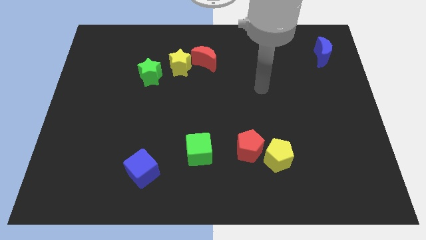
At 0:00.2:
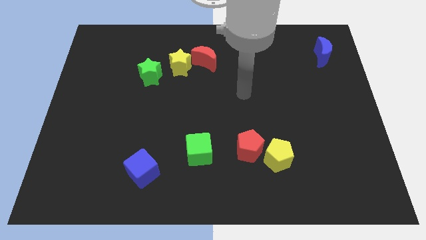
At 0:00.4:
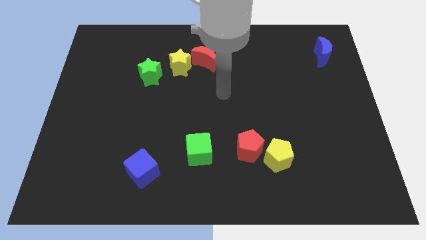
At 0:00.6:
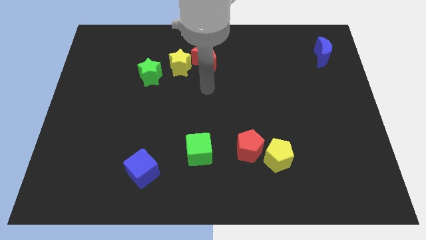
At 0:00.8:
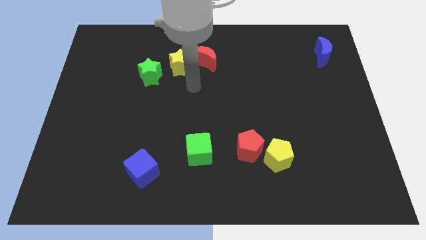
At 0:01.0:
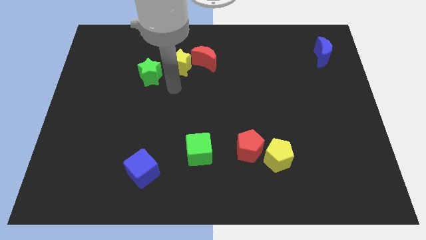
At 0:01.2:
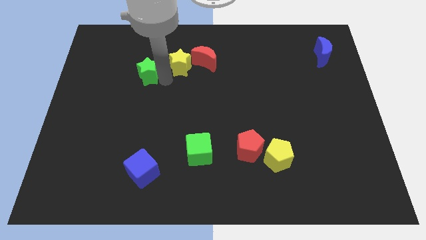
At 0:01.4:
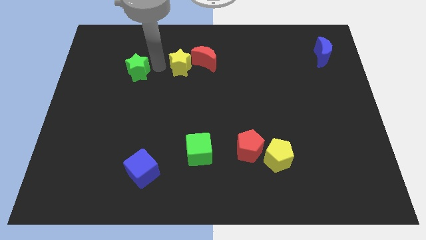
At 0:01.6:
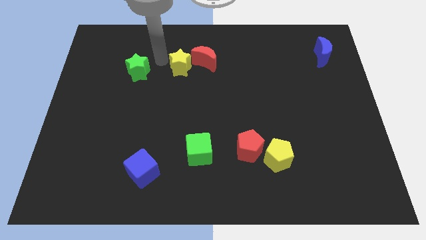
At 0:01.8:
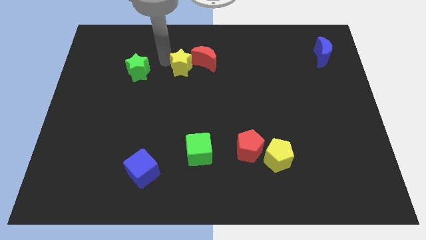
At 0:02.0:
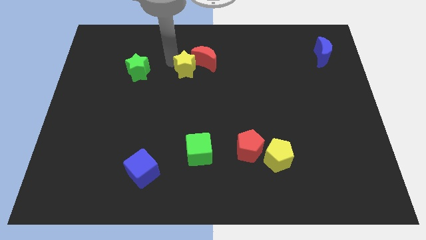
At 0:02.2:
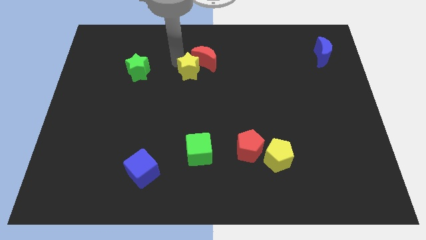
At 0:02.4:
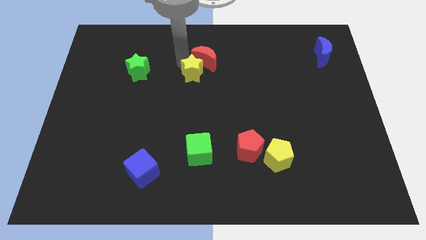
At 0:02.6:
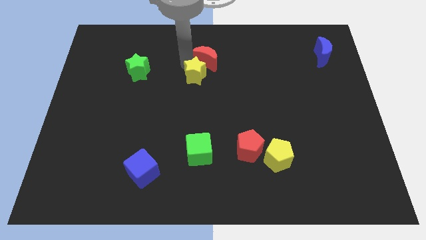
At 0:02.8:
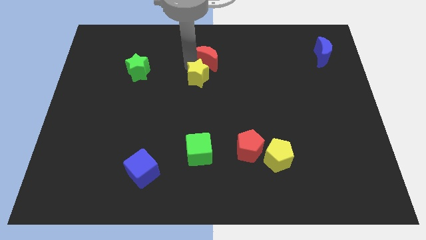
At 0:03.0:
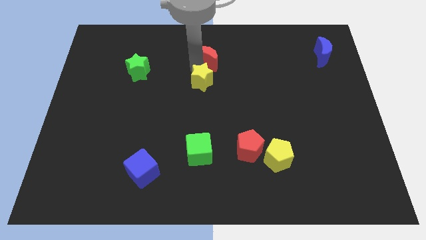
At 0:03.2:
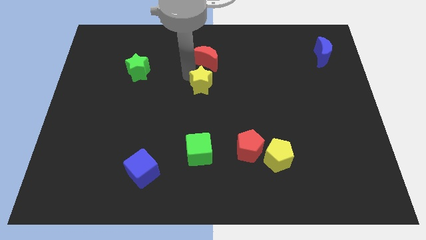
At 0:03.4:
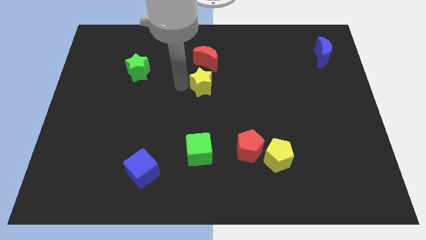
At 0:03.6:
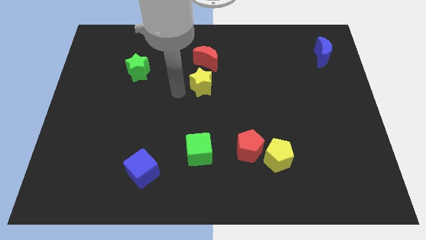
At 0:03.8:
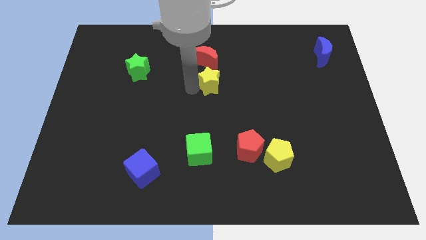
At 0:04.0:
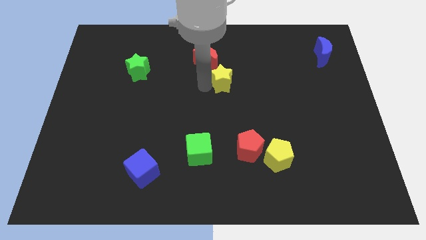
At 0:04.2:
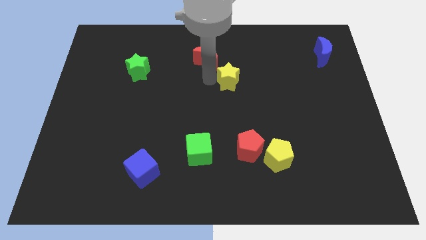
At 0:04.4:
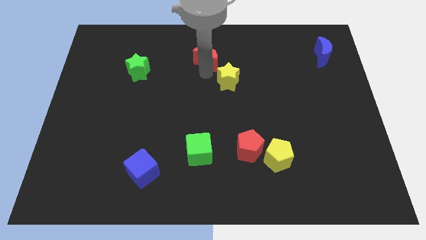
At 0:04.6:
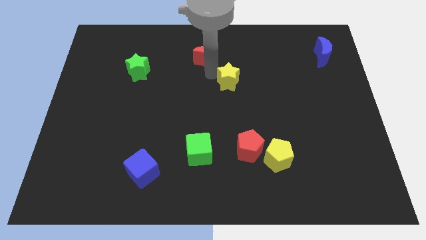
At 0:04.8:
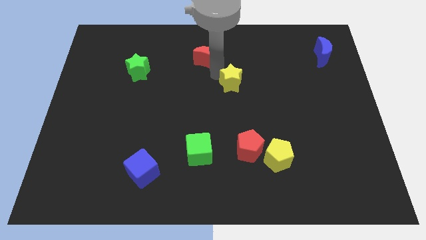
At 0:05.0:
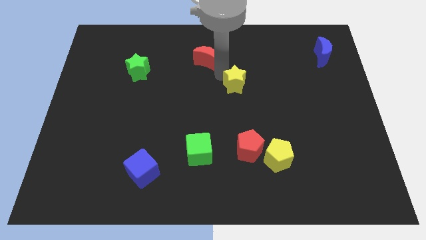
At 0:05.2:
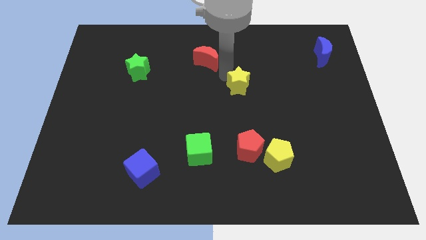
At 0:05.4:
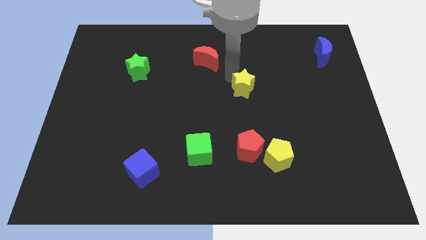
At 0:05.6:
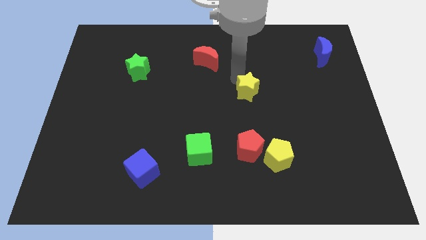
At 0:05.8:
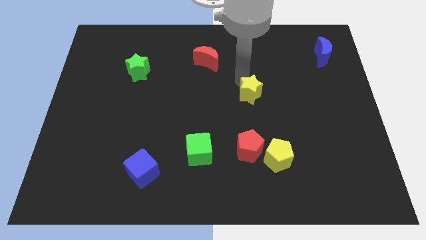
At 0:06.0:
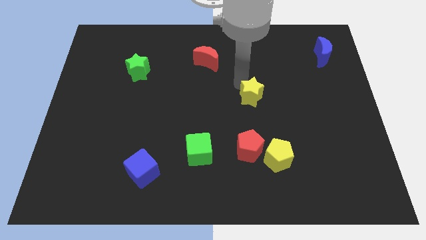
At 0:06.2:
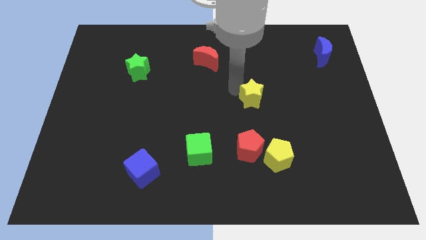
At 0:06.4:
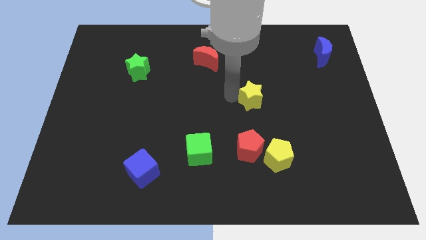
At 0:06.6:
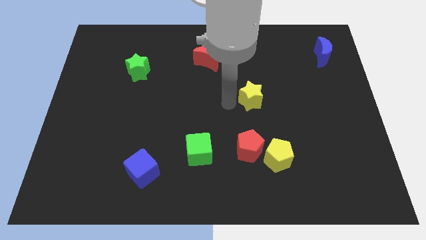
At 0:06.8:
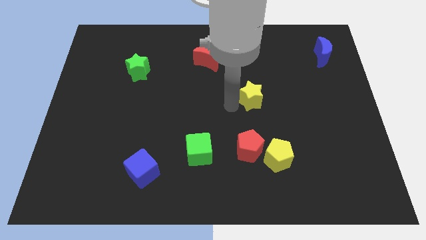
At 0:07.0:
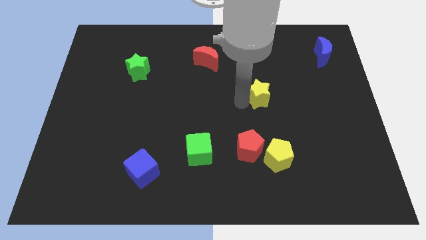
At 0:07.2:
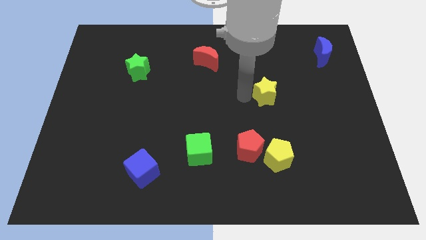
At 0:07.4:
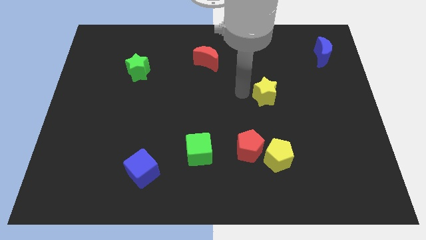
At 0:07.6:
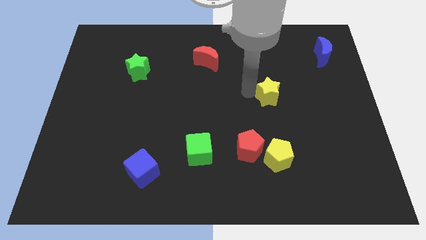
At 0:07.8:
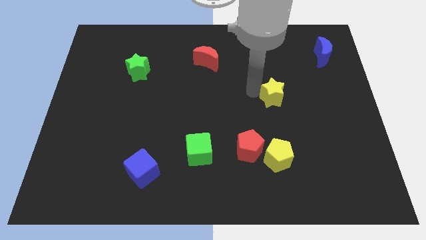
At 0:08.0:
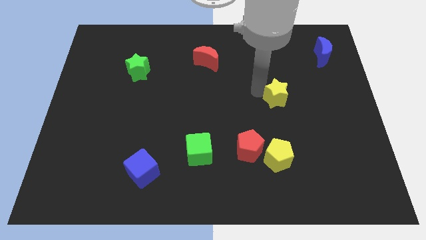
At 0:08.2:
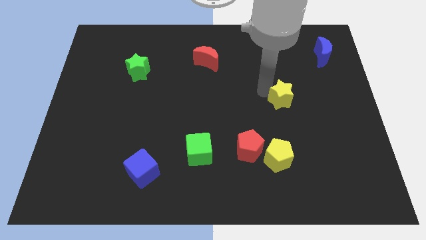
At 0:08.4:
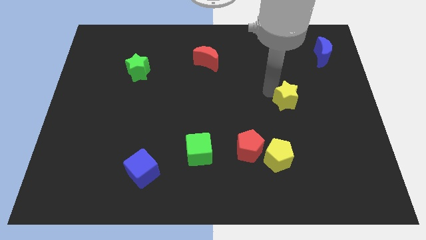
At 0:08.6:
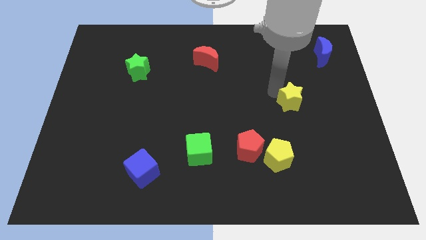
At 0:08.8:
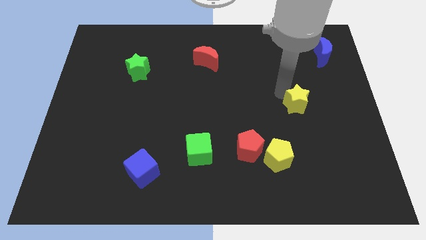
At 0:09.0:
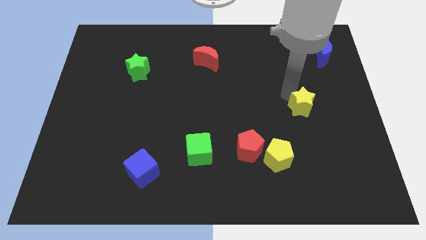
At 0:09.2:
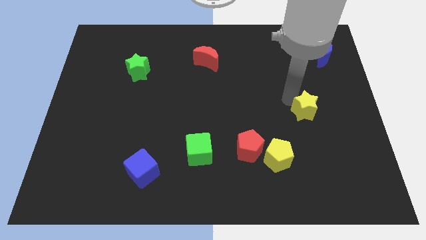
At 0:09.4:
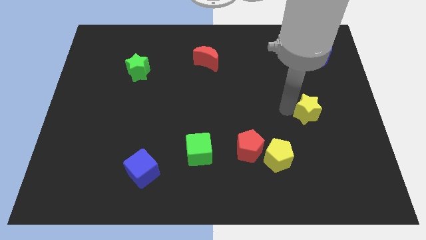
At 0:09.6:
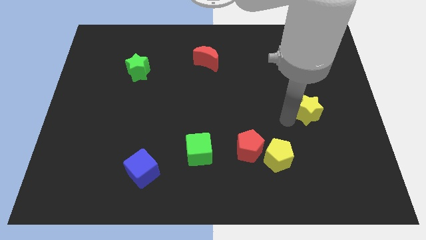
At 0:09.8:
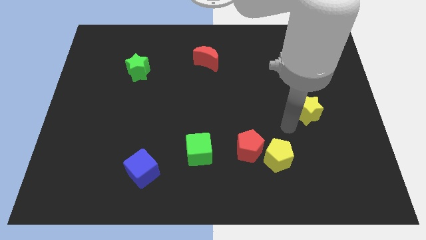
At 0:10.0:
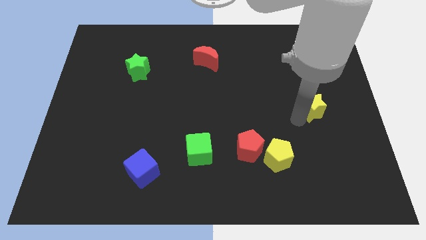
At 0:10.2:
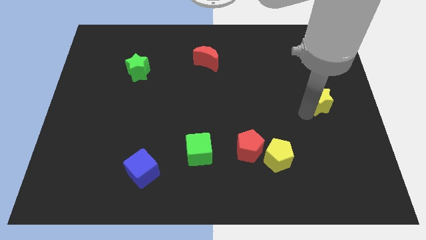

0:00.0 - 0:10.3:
move the yellow star to the center right
